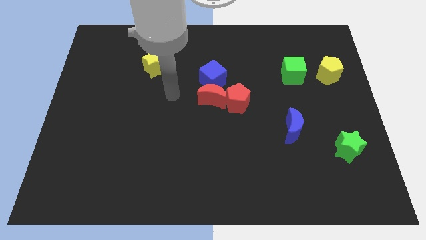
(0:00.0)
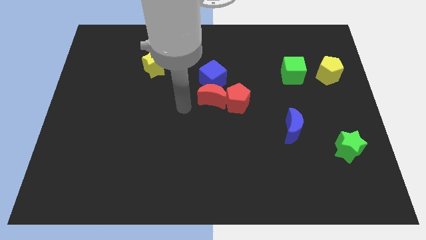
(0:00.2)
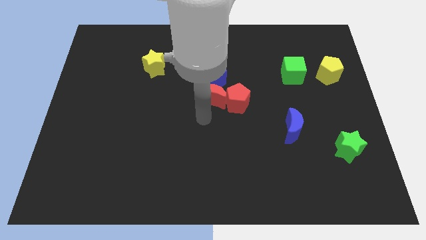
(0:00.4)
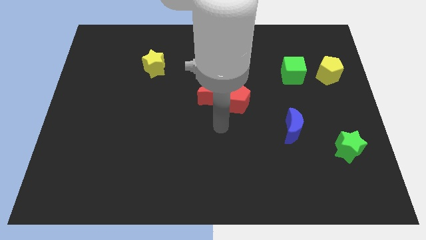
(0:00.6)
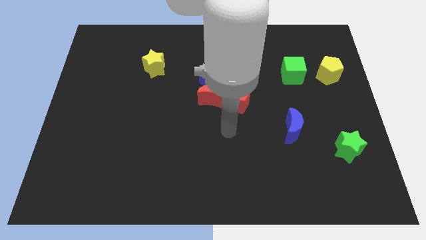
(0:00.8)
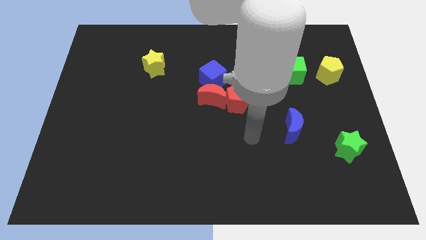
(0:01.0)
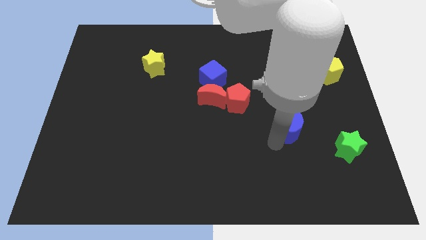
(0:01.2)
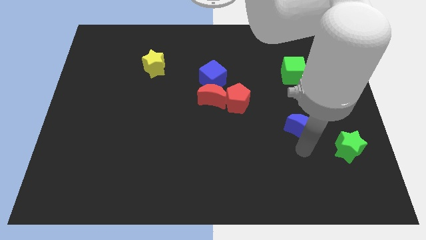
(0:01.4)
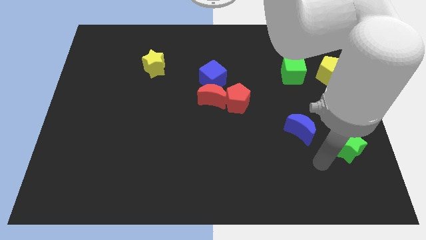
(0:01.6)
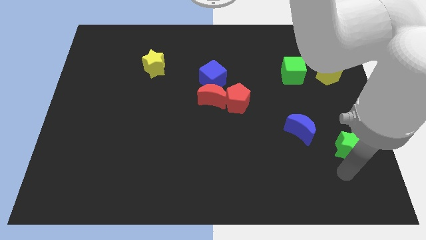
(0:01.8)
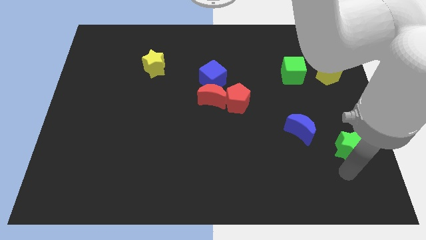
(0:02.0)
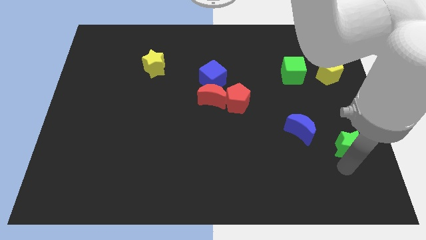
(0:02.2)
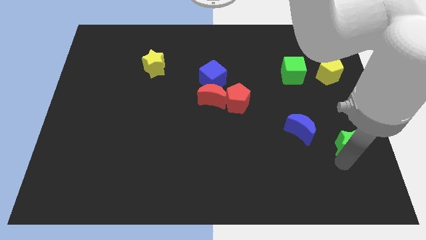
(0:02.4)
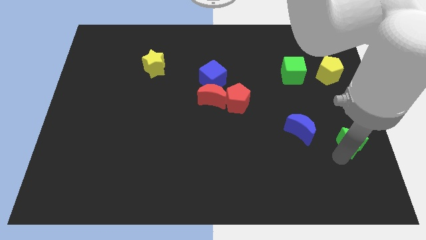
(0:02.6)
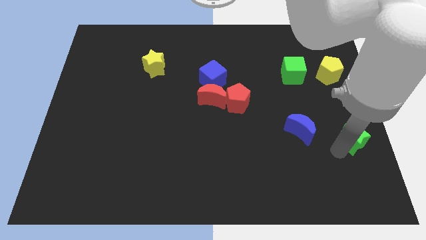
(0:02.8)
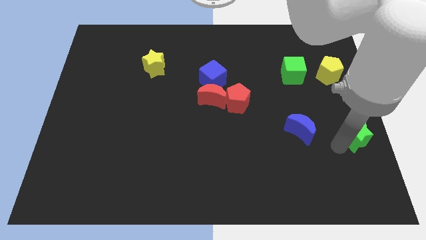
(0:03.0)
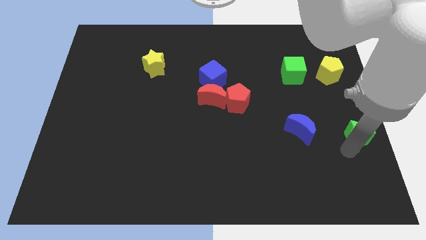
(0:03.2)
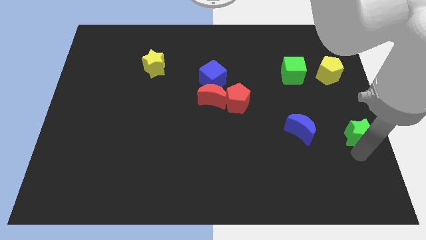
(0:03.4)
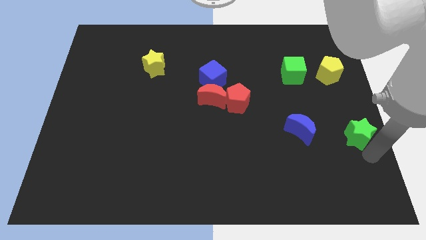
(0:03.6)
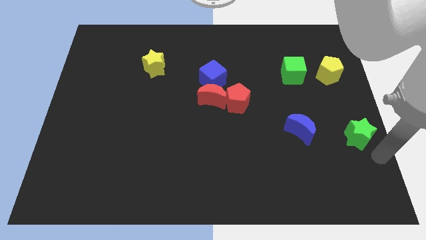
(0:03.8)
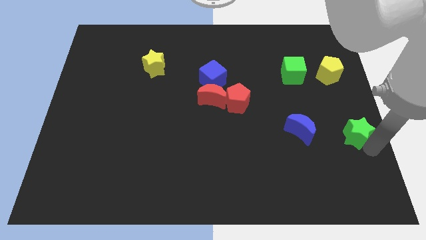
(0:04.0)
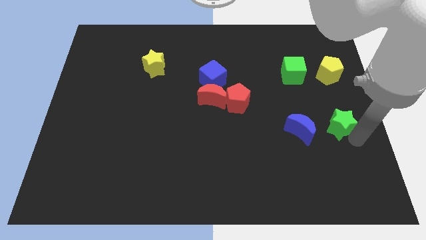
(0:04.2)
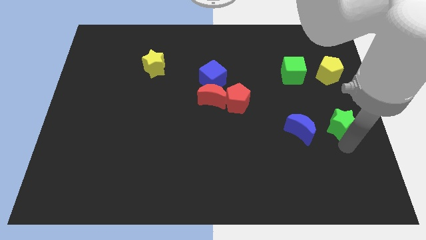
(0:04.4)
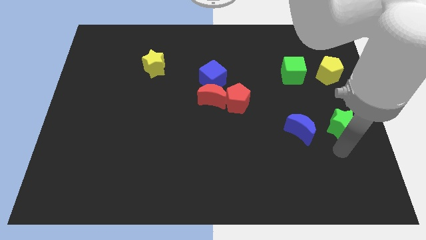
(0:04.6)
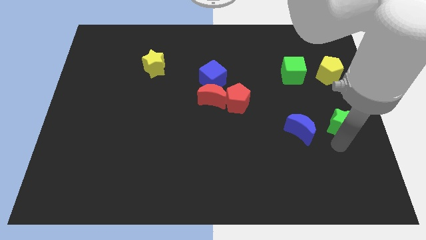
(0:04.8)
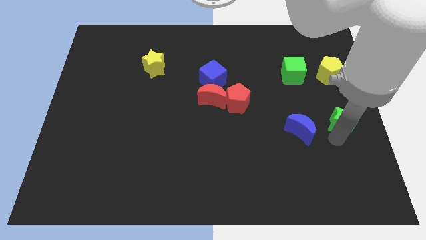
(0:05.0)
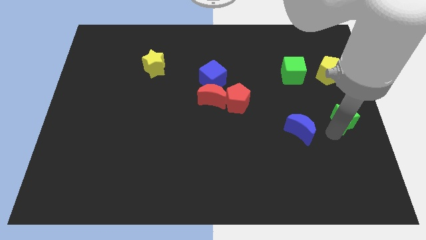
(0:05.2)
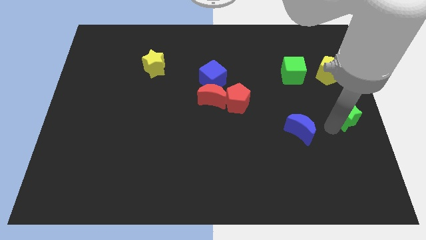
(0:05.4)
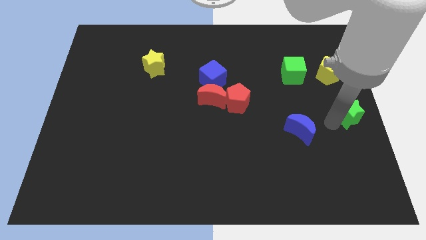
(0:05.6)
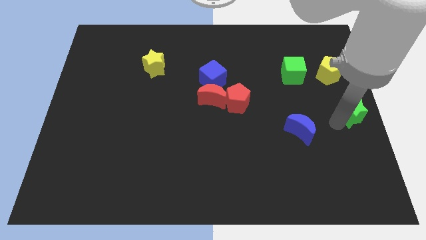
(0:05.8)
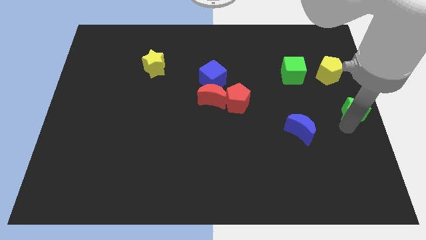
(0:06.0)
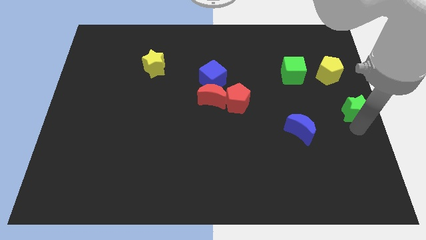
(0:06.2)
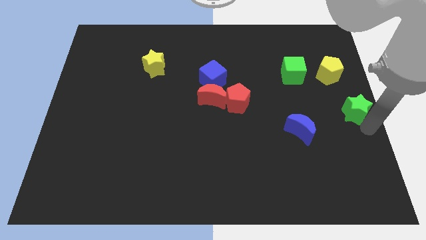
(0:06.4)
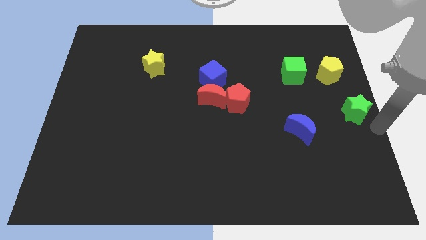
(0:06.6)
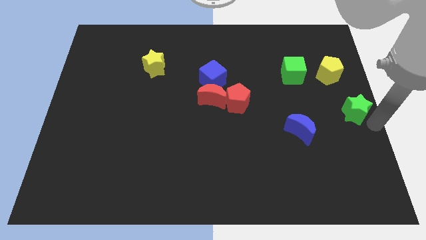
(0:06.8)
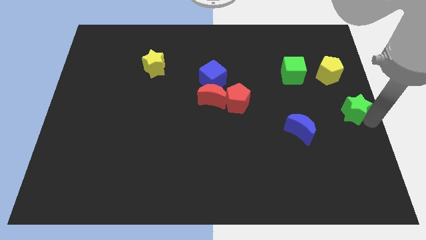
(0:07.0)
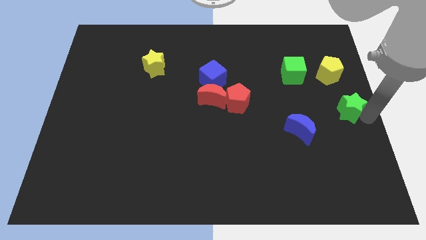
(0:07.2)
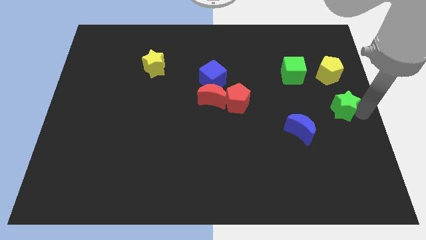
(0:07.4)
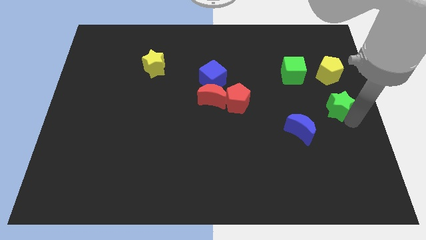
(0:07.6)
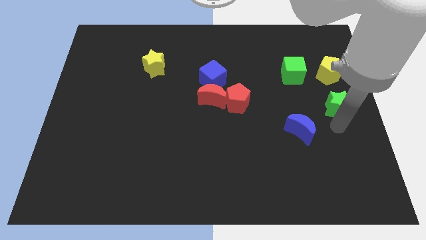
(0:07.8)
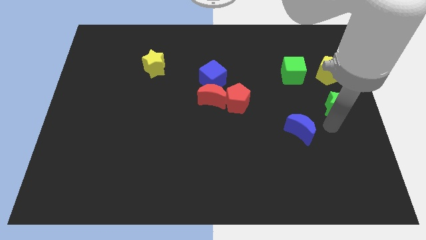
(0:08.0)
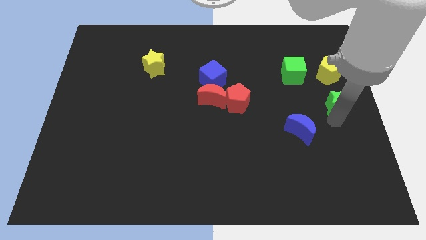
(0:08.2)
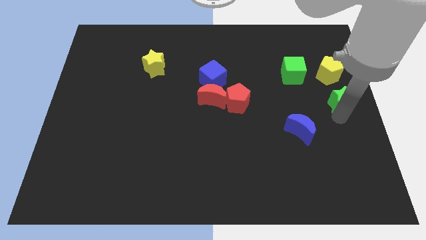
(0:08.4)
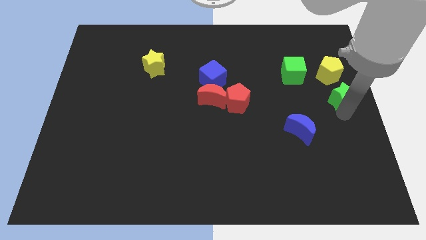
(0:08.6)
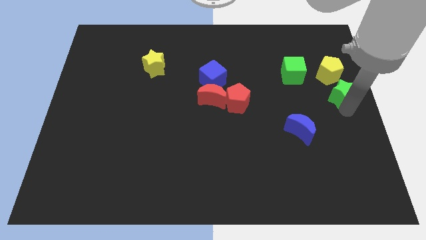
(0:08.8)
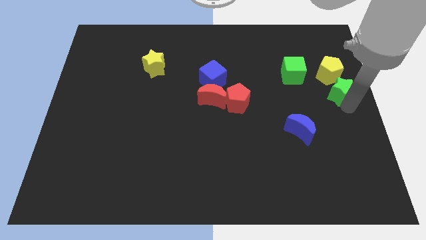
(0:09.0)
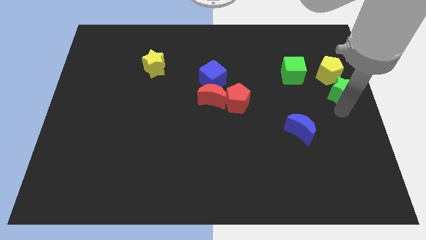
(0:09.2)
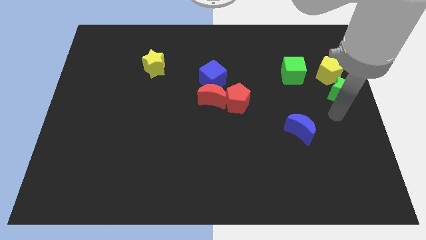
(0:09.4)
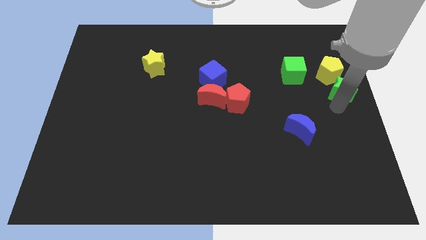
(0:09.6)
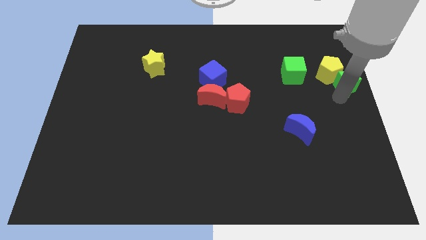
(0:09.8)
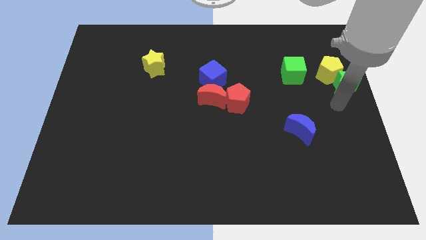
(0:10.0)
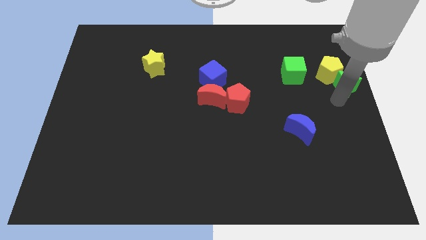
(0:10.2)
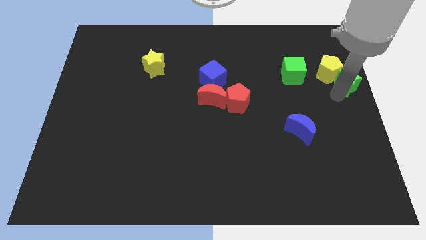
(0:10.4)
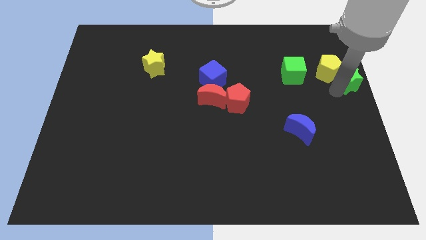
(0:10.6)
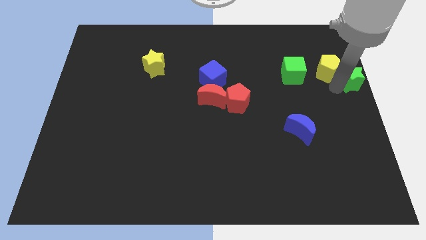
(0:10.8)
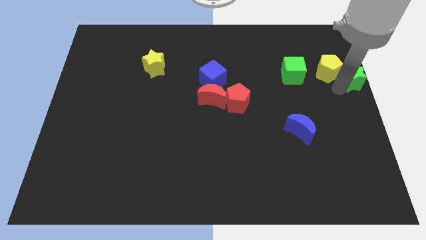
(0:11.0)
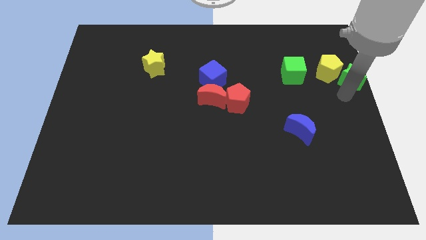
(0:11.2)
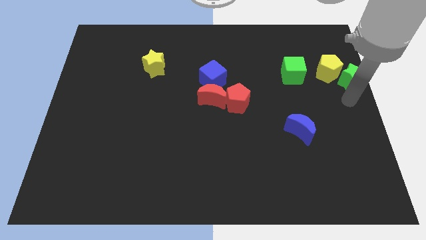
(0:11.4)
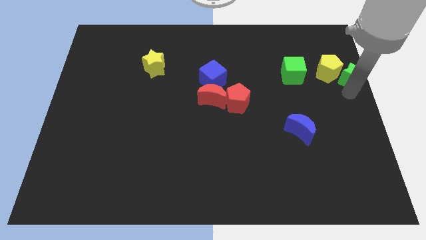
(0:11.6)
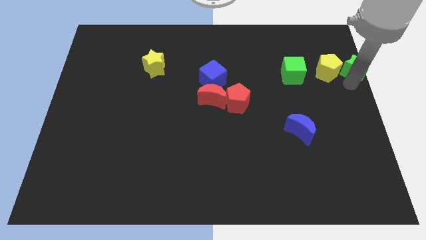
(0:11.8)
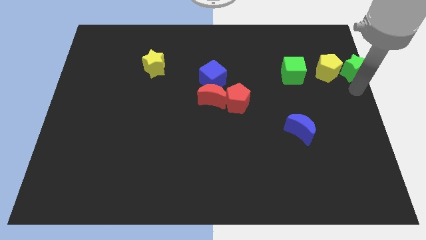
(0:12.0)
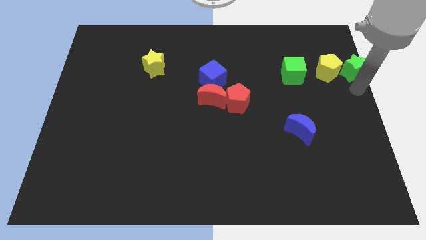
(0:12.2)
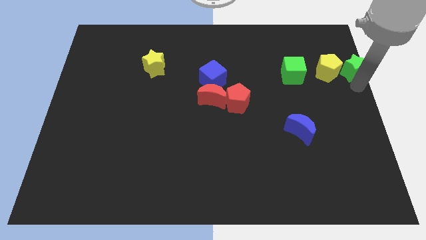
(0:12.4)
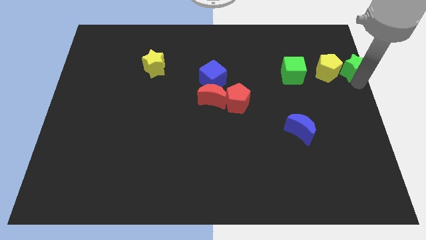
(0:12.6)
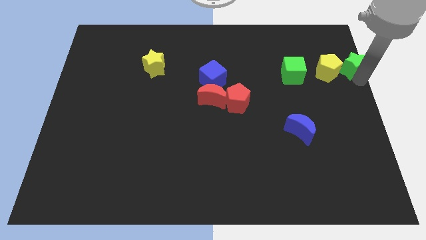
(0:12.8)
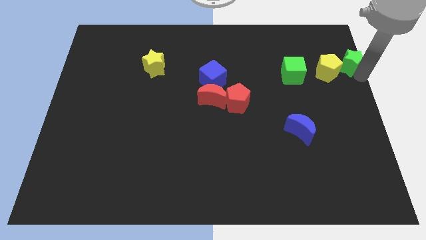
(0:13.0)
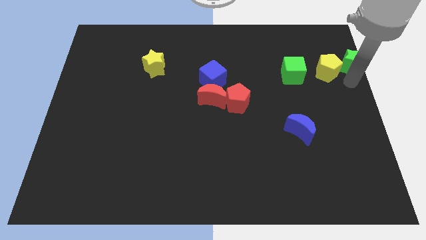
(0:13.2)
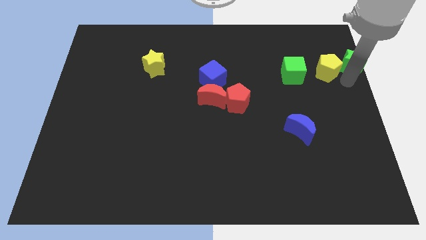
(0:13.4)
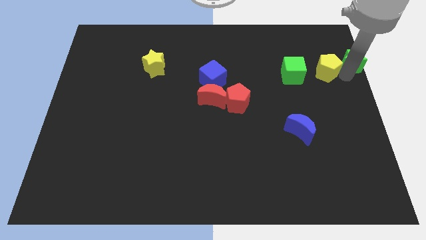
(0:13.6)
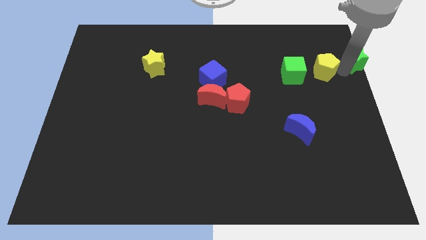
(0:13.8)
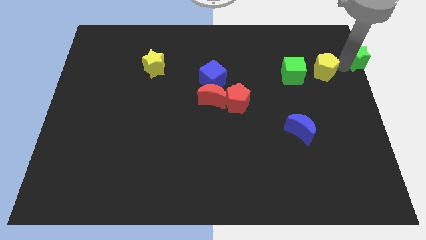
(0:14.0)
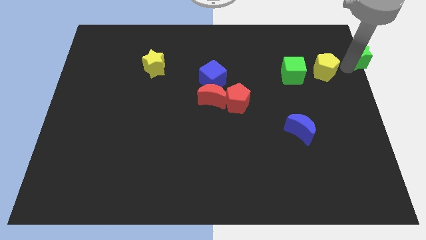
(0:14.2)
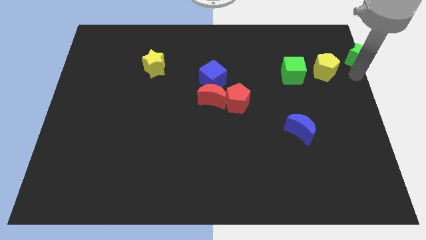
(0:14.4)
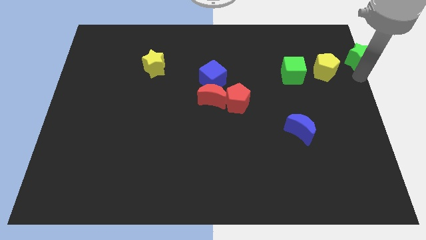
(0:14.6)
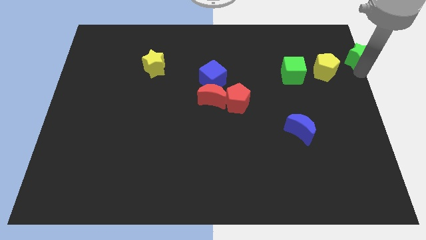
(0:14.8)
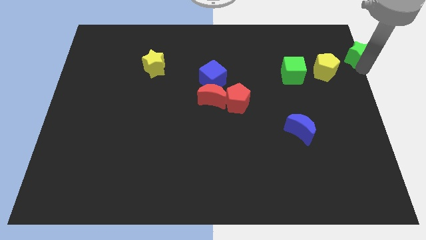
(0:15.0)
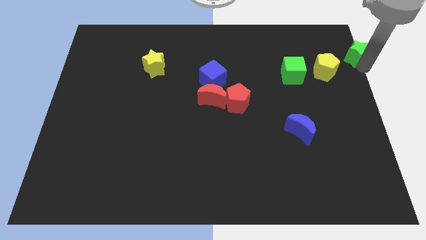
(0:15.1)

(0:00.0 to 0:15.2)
put the green star to the upper right corner
